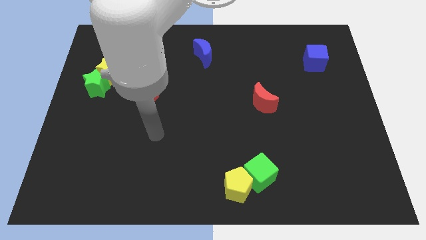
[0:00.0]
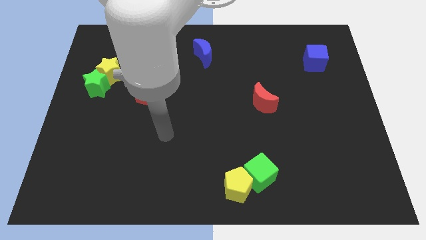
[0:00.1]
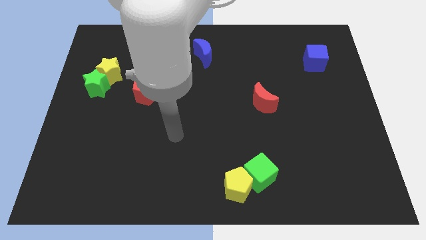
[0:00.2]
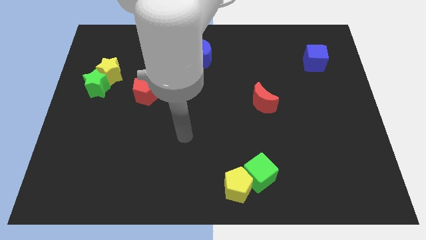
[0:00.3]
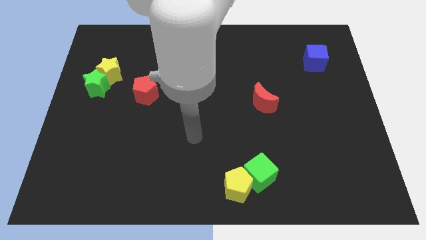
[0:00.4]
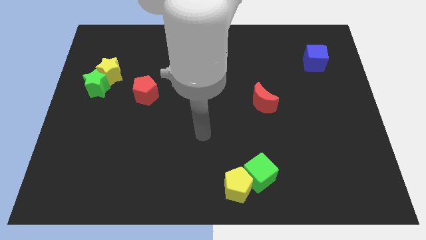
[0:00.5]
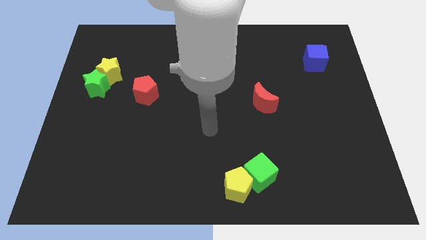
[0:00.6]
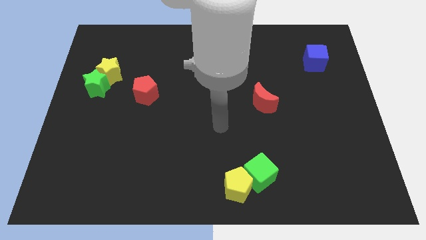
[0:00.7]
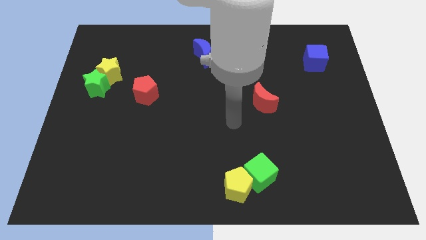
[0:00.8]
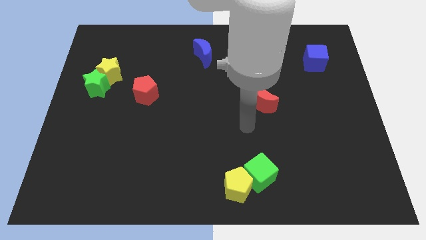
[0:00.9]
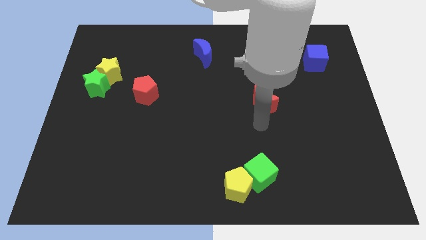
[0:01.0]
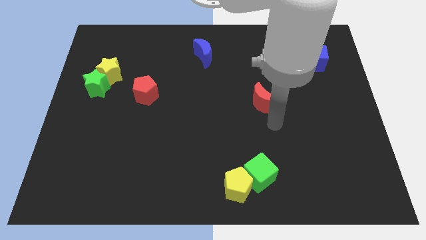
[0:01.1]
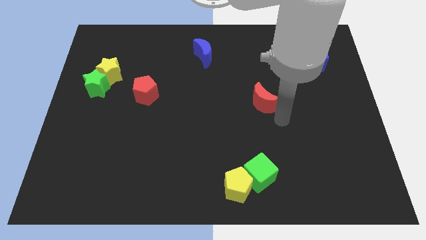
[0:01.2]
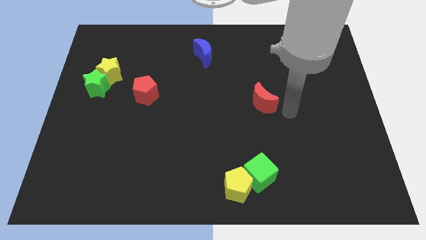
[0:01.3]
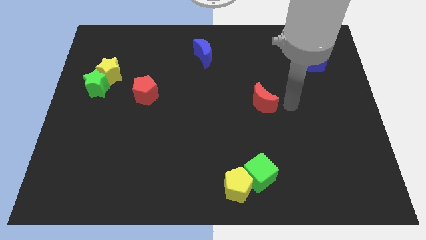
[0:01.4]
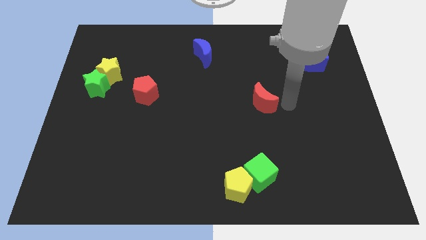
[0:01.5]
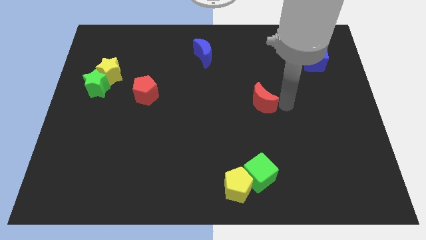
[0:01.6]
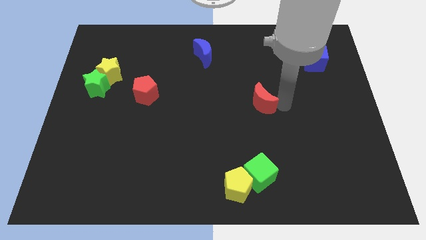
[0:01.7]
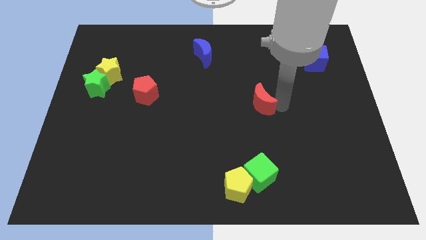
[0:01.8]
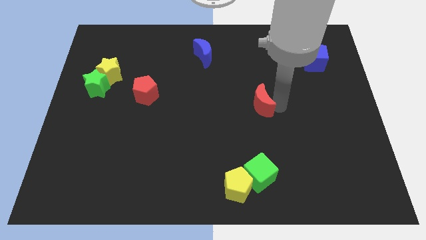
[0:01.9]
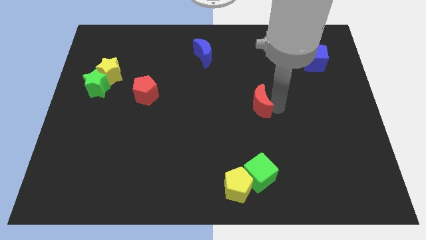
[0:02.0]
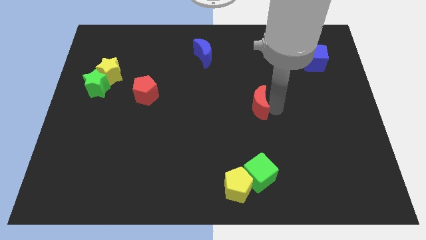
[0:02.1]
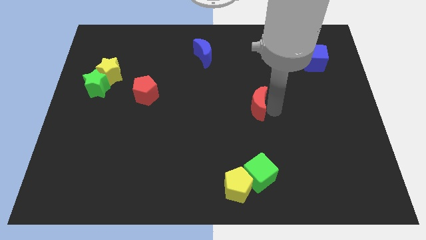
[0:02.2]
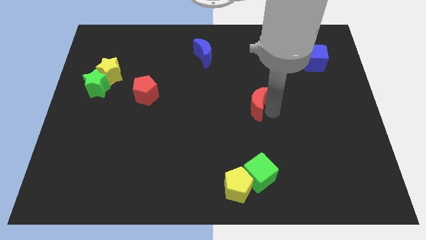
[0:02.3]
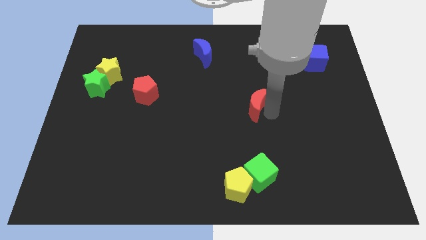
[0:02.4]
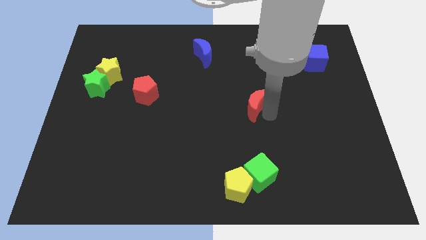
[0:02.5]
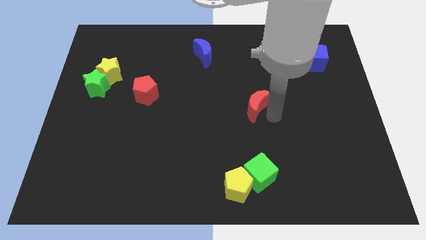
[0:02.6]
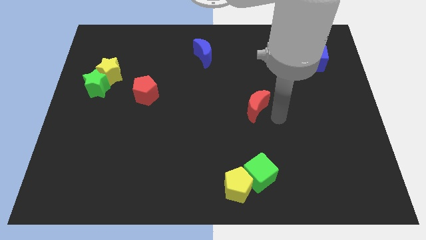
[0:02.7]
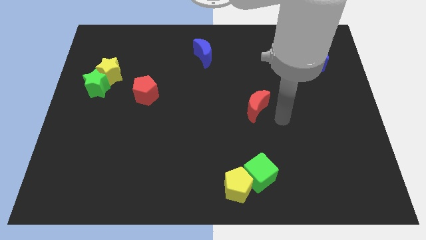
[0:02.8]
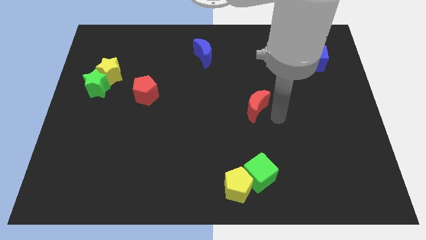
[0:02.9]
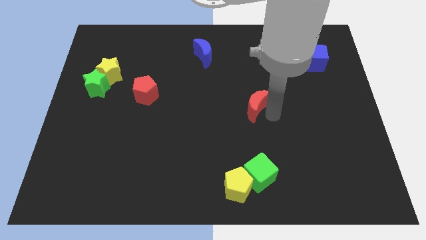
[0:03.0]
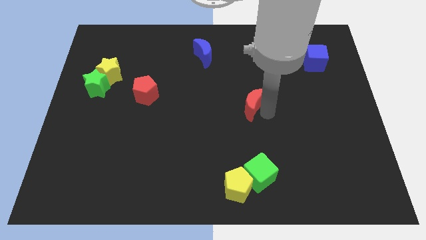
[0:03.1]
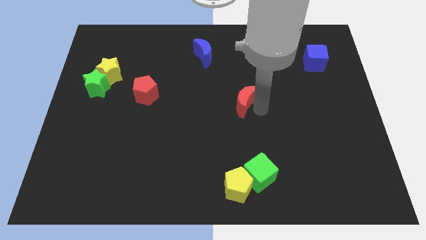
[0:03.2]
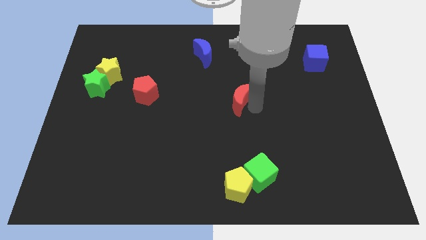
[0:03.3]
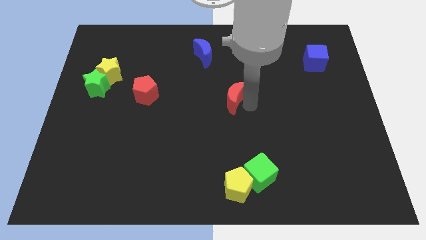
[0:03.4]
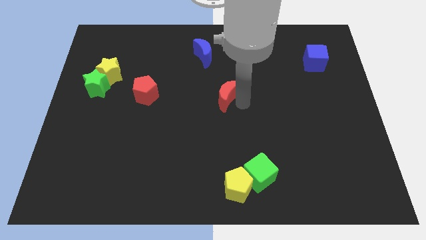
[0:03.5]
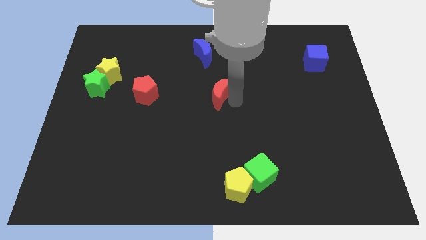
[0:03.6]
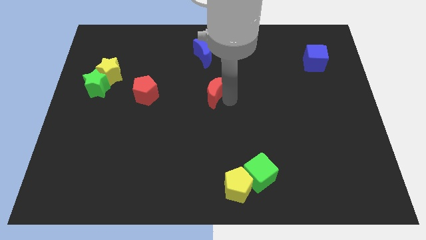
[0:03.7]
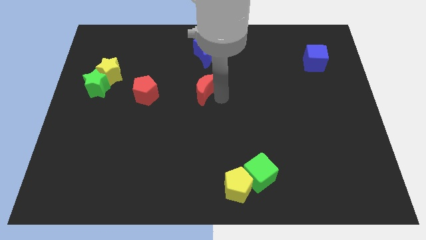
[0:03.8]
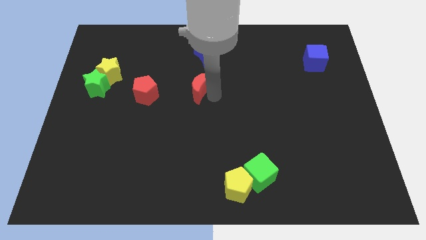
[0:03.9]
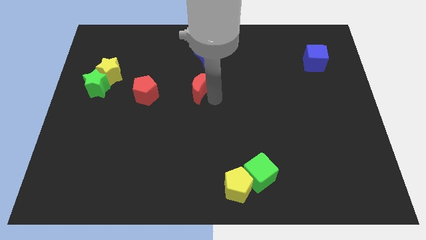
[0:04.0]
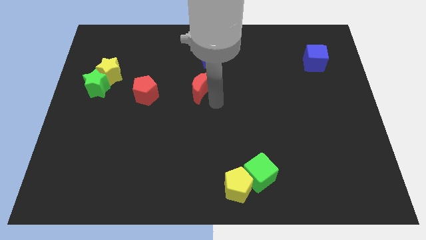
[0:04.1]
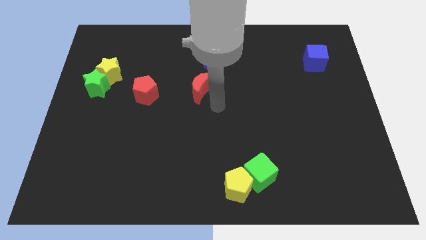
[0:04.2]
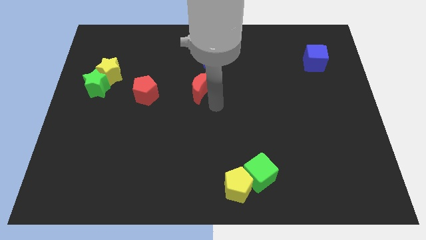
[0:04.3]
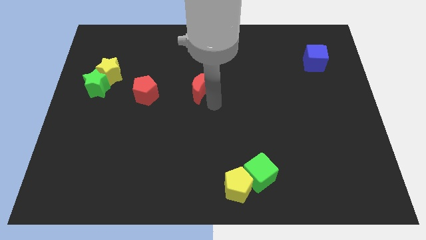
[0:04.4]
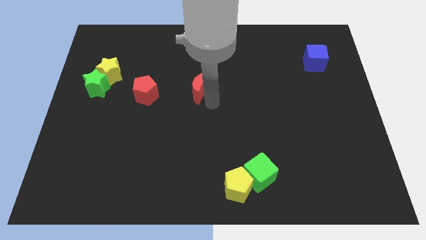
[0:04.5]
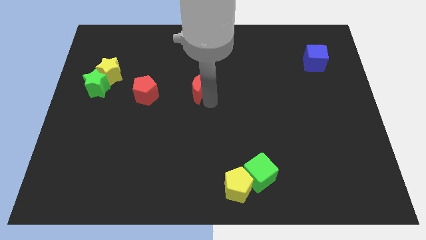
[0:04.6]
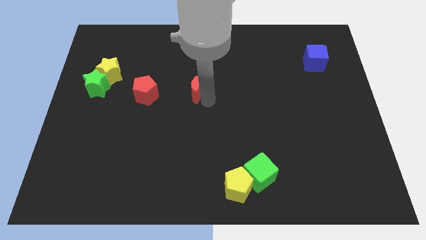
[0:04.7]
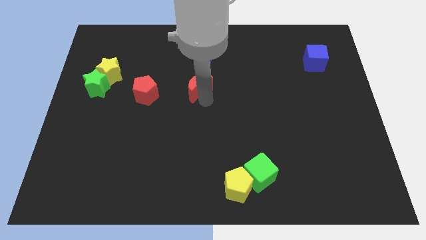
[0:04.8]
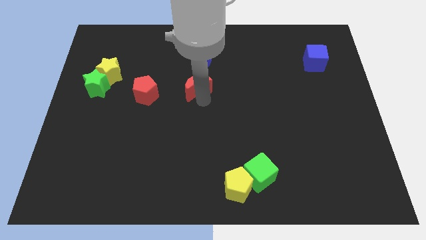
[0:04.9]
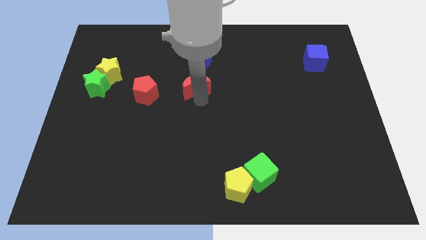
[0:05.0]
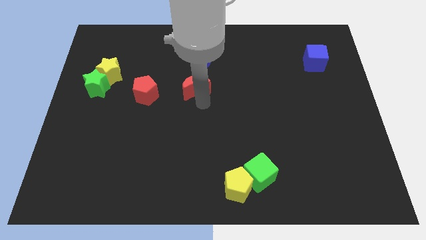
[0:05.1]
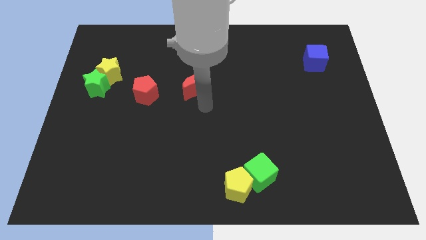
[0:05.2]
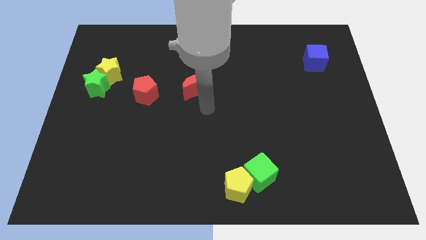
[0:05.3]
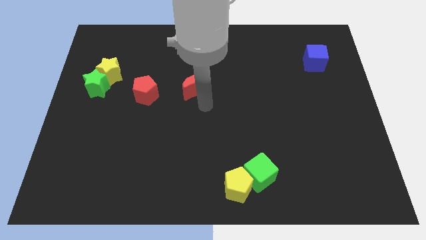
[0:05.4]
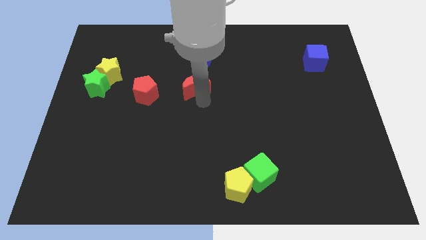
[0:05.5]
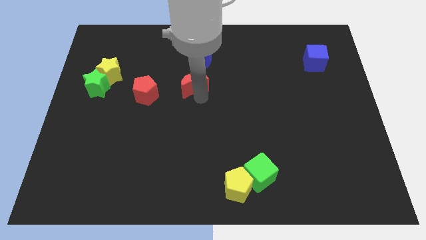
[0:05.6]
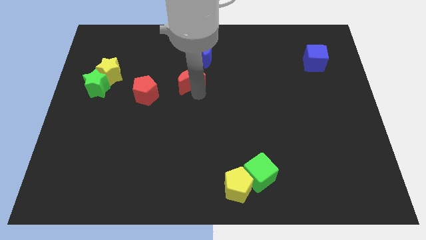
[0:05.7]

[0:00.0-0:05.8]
put the red moon diagonally down and to the left of the blue moon

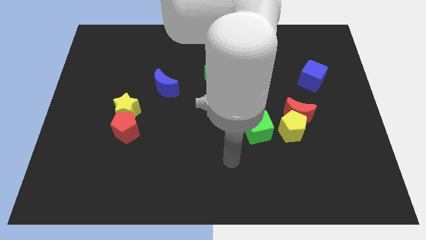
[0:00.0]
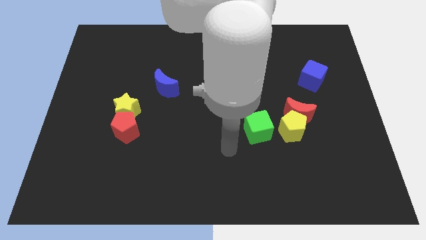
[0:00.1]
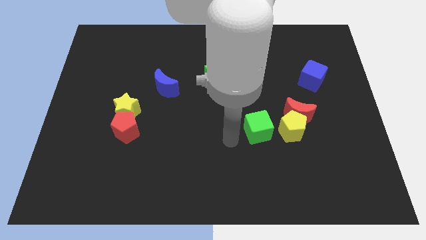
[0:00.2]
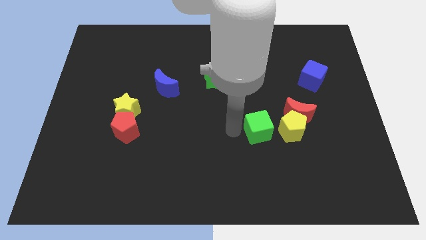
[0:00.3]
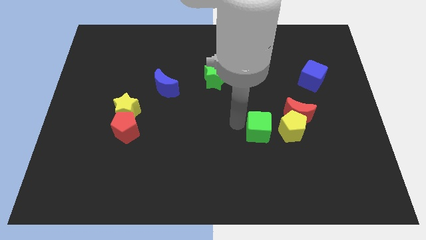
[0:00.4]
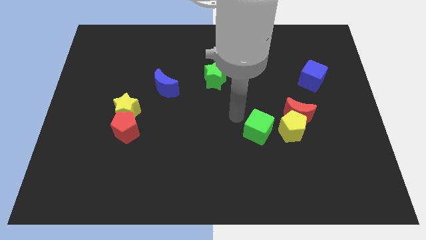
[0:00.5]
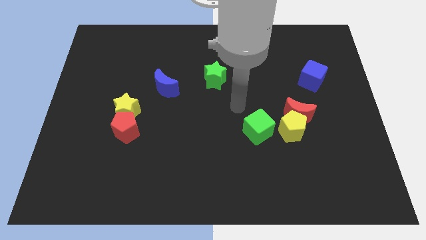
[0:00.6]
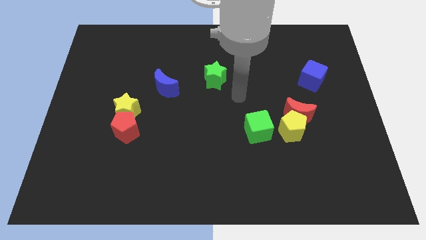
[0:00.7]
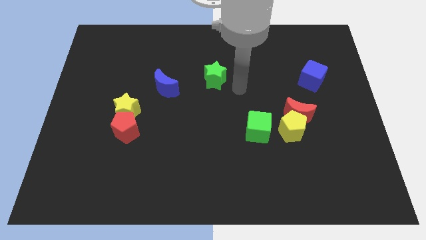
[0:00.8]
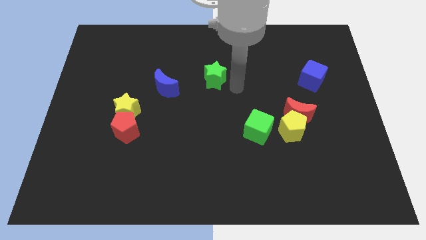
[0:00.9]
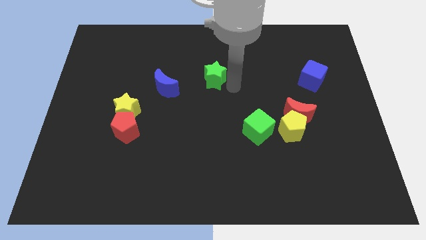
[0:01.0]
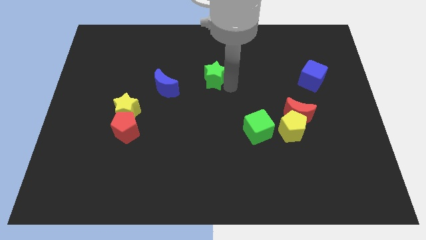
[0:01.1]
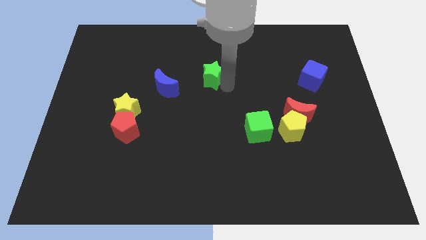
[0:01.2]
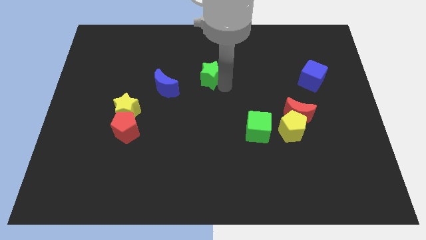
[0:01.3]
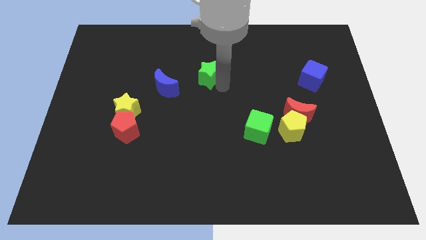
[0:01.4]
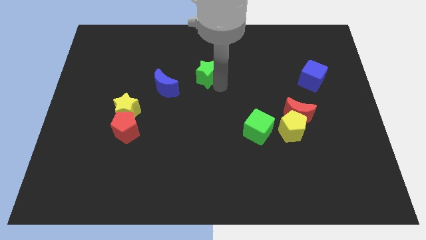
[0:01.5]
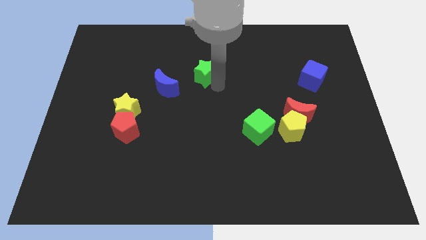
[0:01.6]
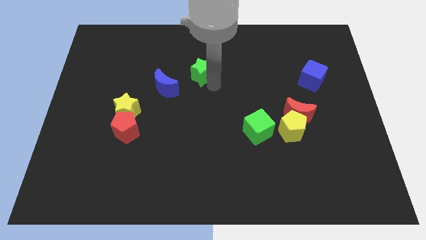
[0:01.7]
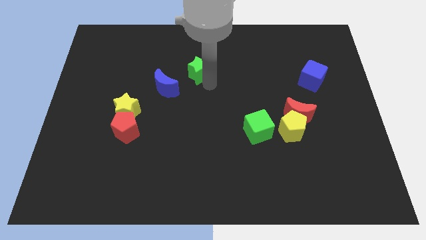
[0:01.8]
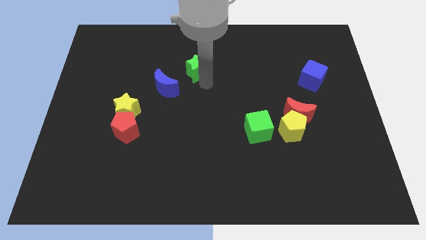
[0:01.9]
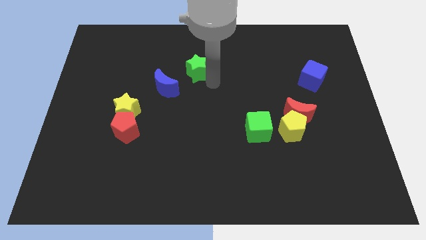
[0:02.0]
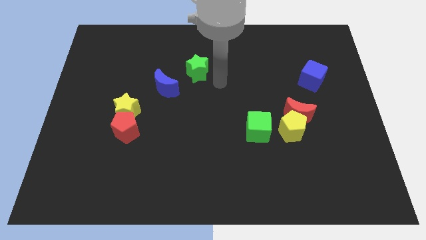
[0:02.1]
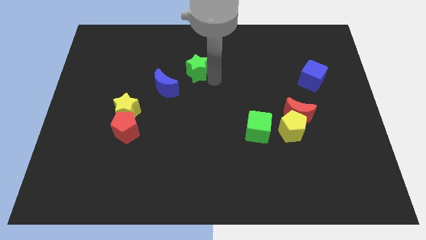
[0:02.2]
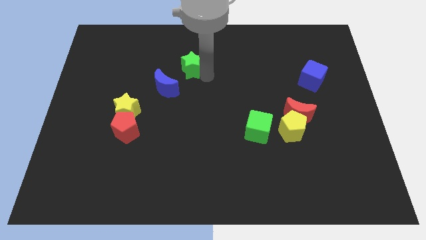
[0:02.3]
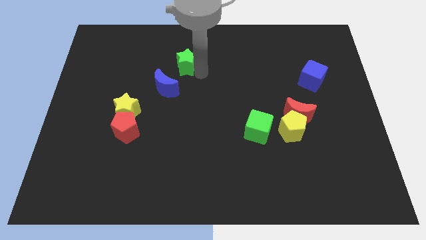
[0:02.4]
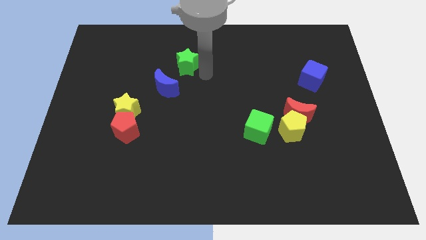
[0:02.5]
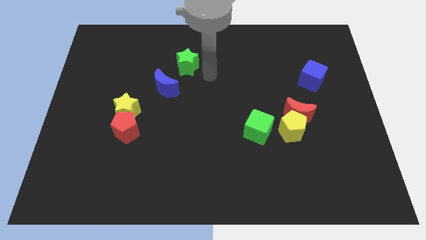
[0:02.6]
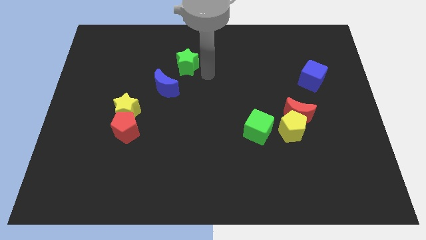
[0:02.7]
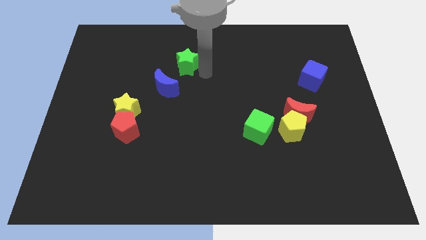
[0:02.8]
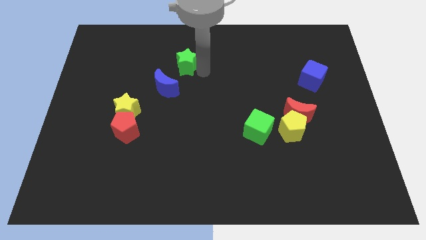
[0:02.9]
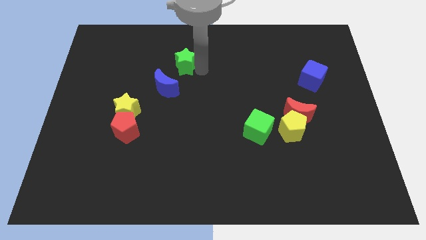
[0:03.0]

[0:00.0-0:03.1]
push the green star to the top side of the blue moon
